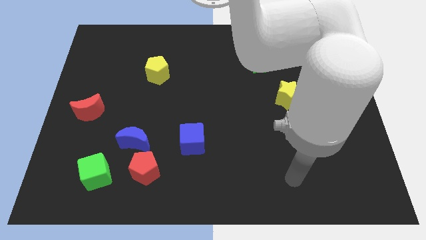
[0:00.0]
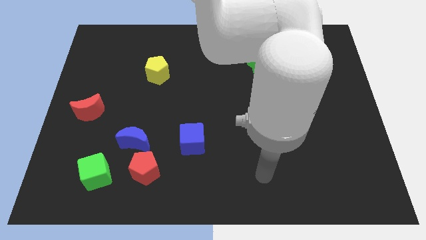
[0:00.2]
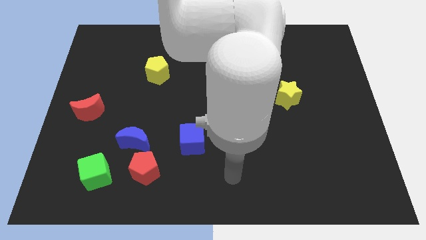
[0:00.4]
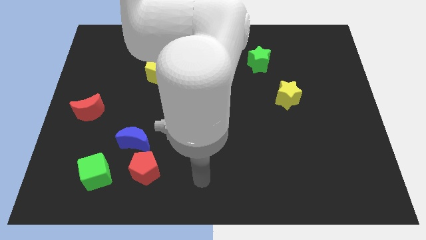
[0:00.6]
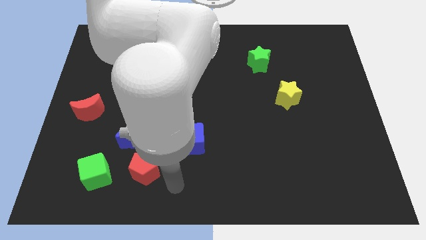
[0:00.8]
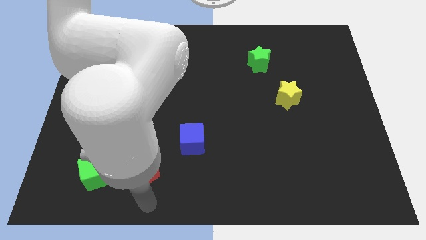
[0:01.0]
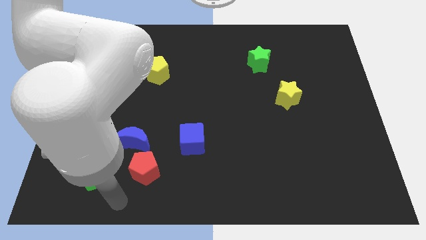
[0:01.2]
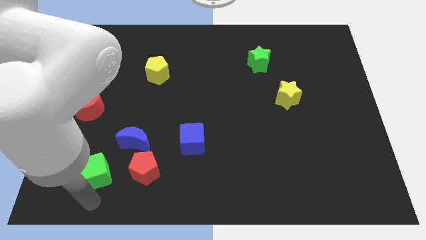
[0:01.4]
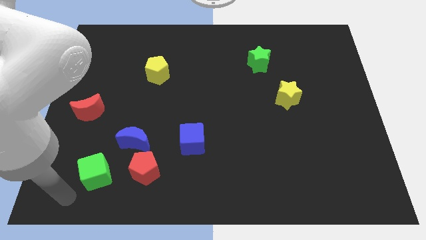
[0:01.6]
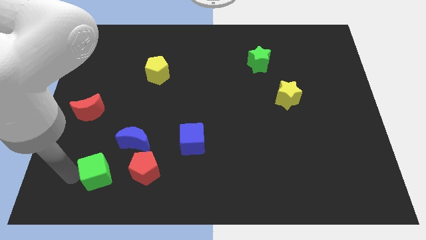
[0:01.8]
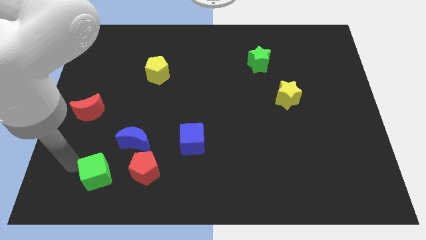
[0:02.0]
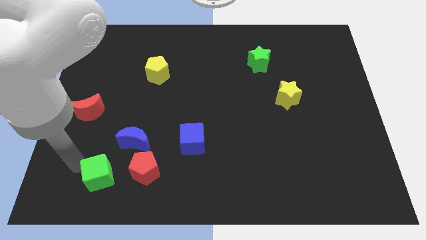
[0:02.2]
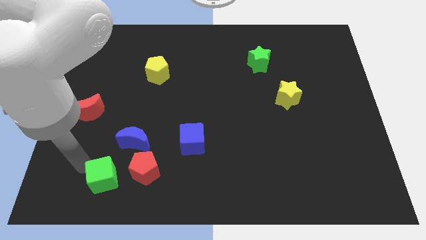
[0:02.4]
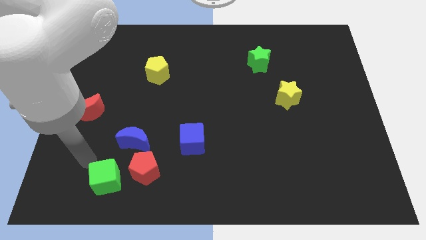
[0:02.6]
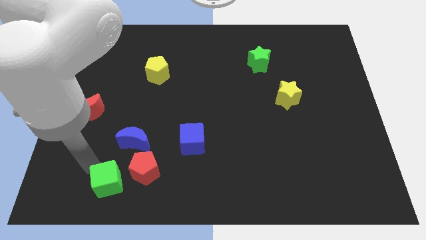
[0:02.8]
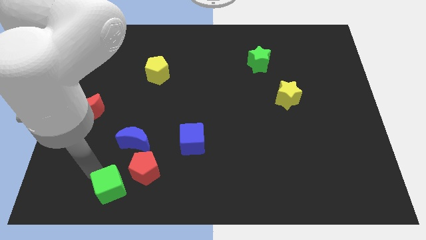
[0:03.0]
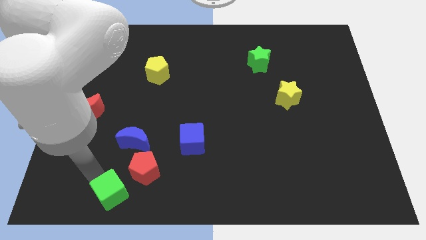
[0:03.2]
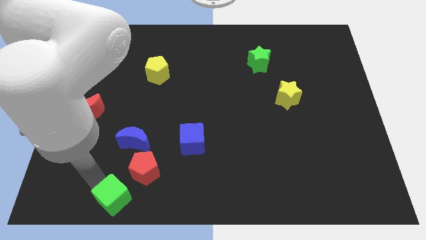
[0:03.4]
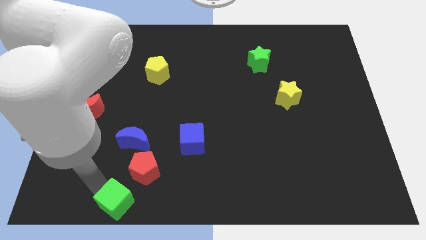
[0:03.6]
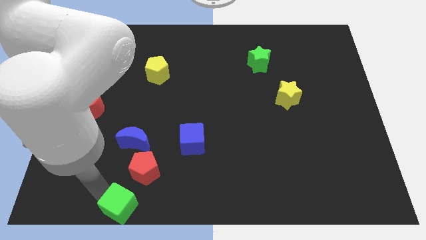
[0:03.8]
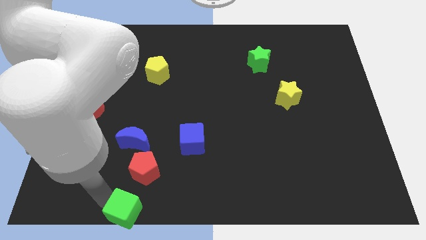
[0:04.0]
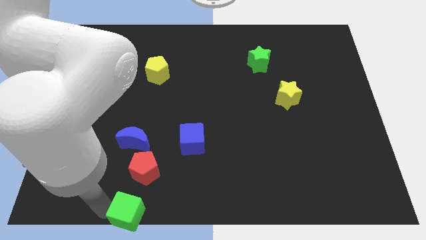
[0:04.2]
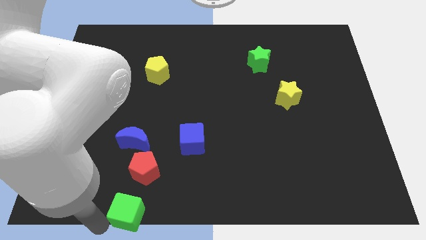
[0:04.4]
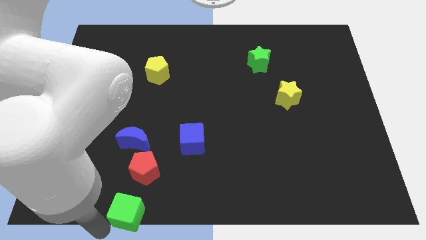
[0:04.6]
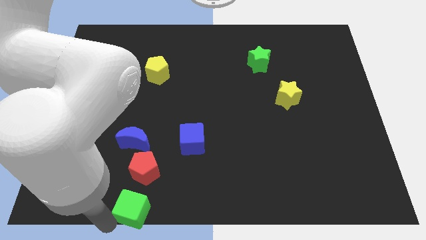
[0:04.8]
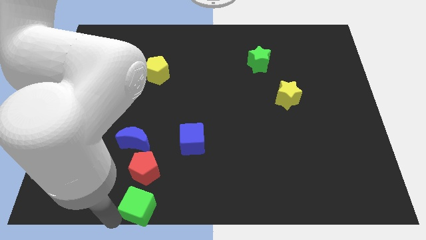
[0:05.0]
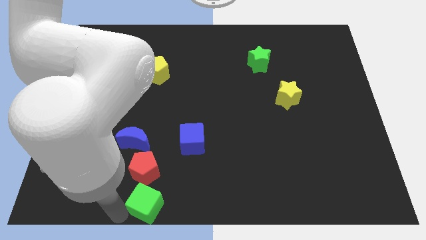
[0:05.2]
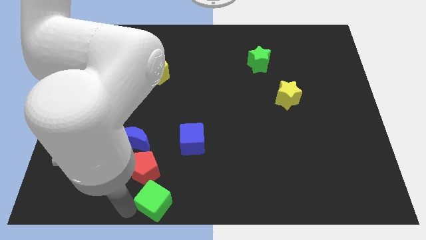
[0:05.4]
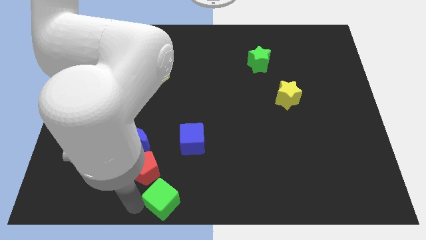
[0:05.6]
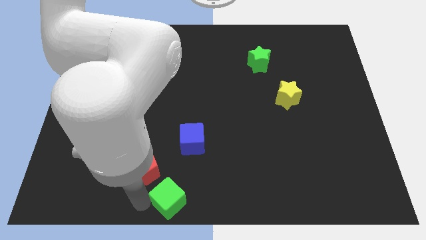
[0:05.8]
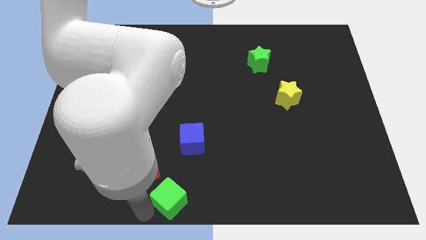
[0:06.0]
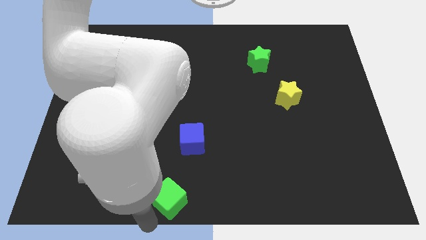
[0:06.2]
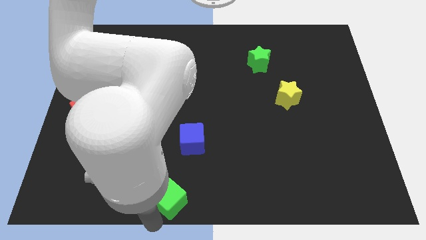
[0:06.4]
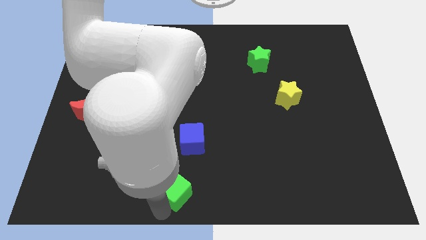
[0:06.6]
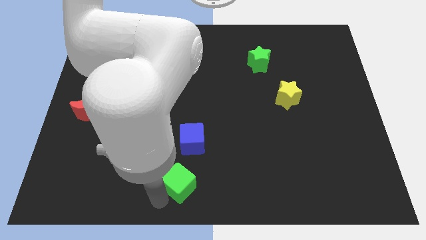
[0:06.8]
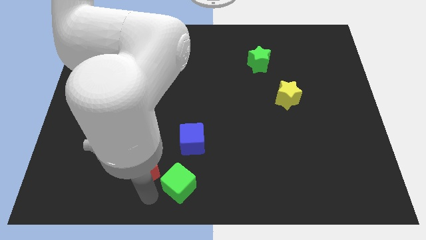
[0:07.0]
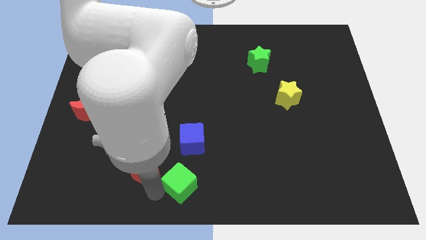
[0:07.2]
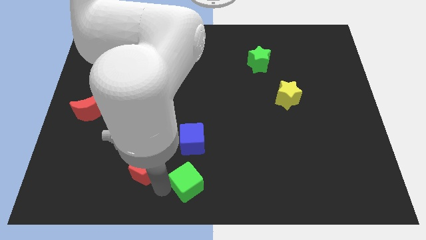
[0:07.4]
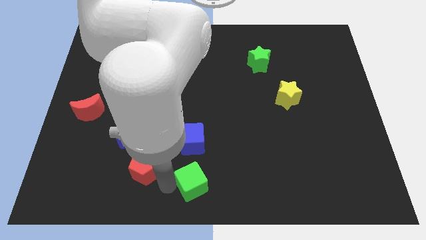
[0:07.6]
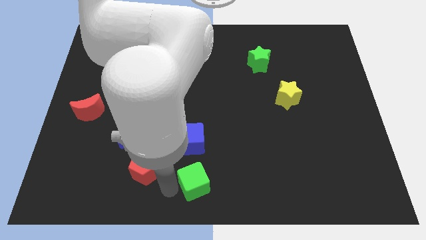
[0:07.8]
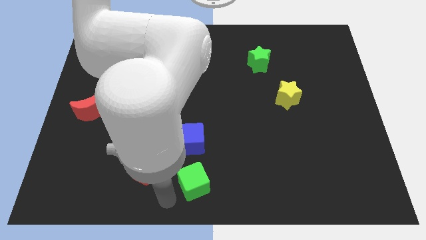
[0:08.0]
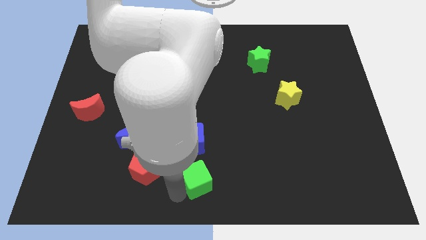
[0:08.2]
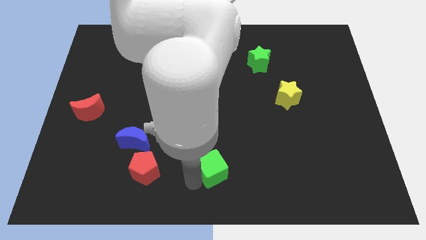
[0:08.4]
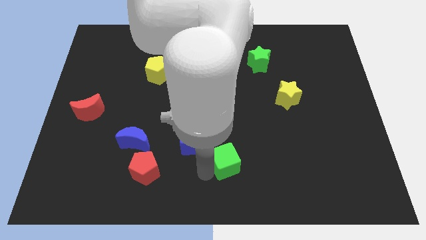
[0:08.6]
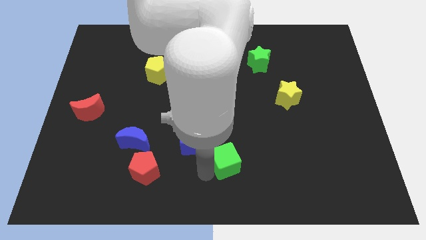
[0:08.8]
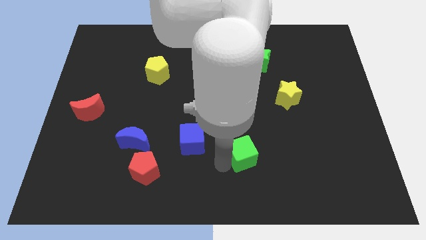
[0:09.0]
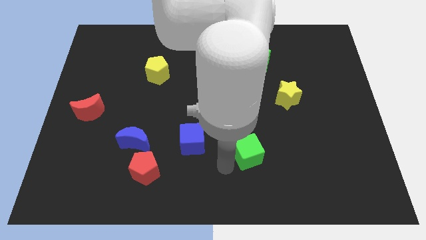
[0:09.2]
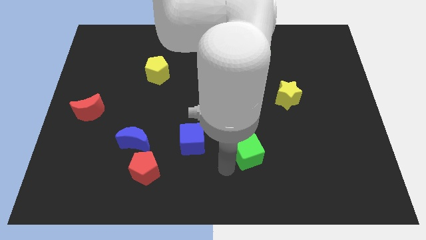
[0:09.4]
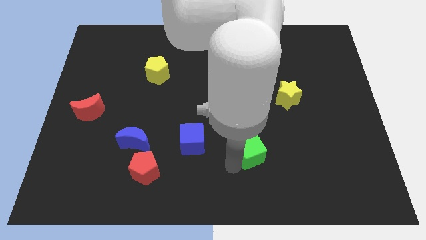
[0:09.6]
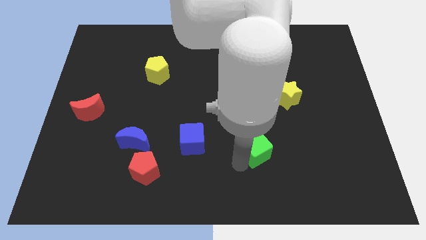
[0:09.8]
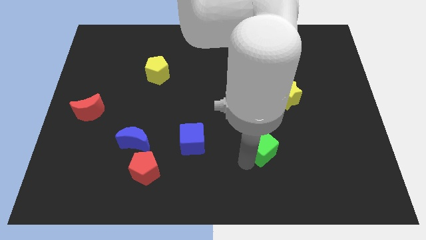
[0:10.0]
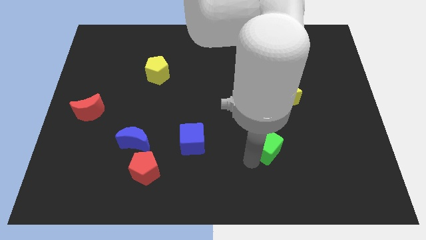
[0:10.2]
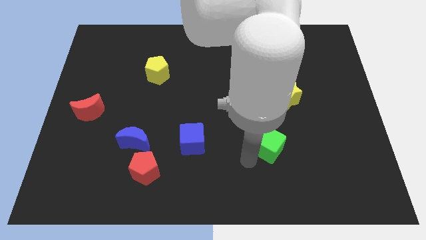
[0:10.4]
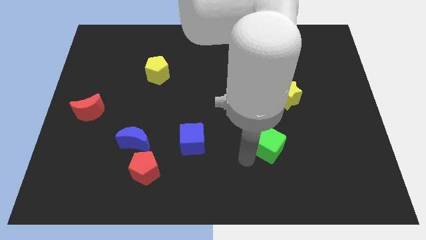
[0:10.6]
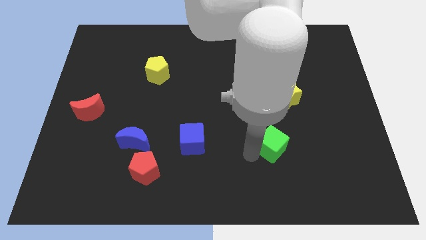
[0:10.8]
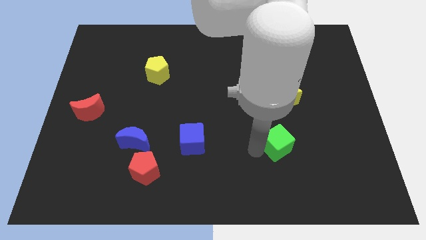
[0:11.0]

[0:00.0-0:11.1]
slide the green cube below the yellow star

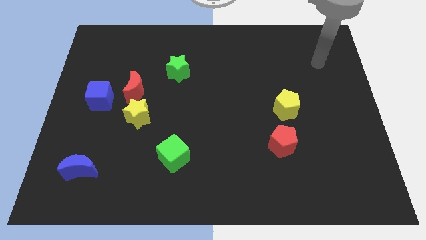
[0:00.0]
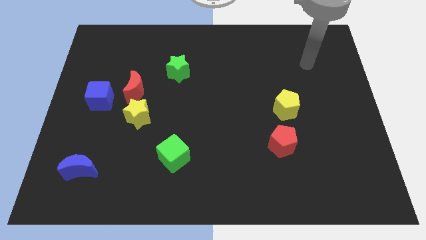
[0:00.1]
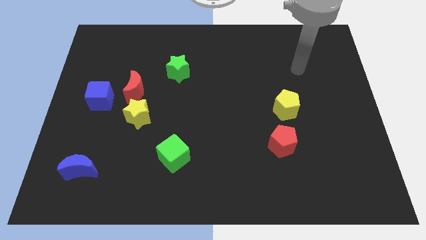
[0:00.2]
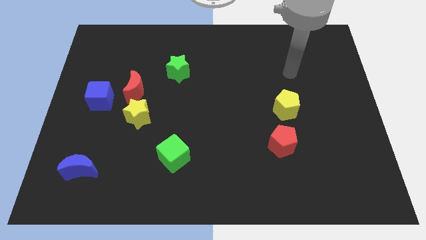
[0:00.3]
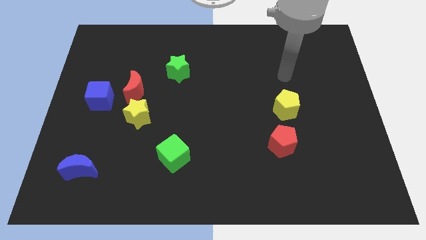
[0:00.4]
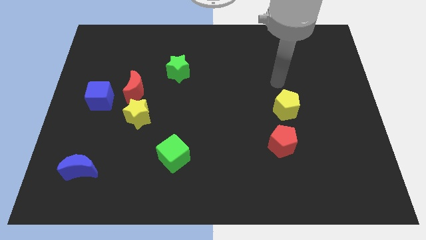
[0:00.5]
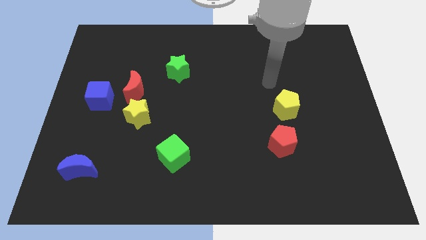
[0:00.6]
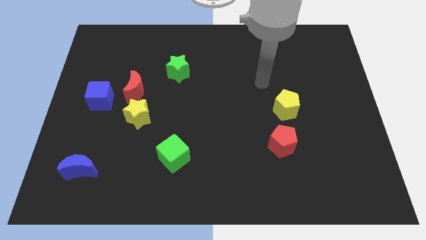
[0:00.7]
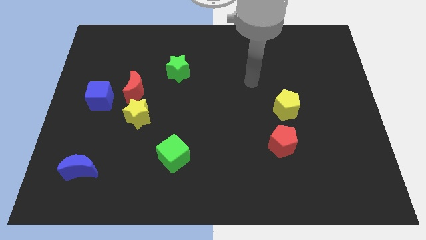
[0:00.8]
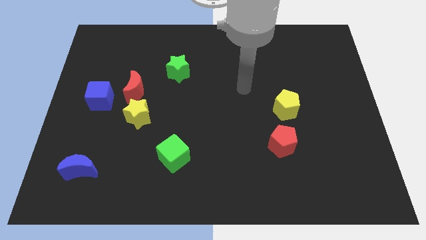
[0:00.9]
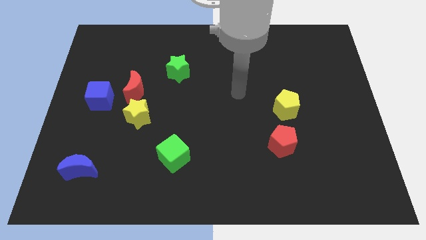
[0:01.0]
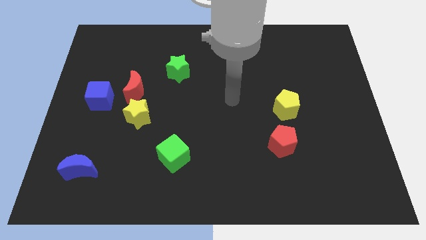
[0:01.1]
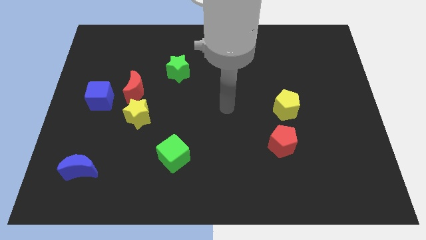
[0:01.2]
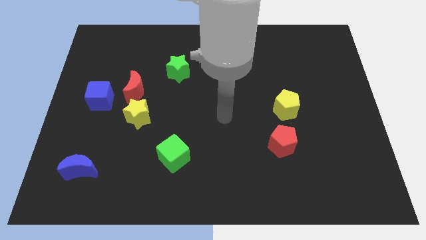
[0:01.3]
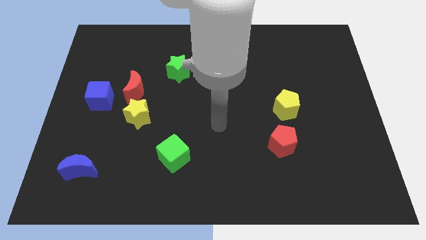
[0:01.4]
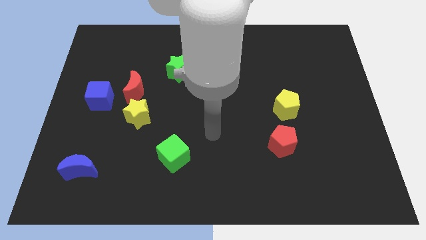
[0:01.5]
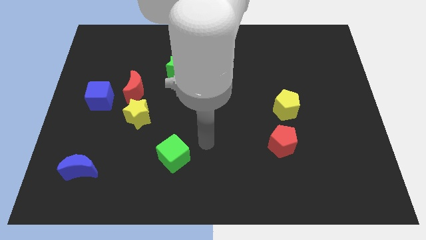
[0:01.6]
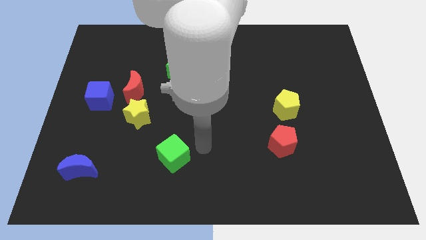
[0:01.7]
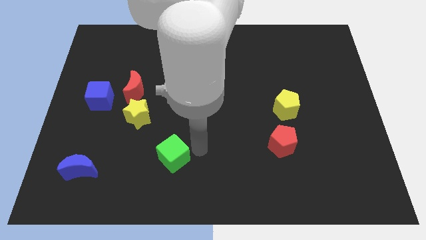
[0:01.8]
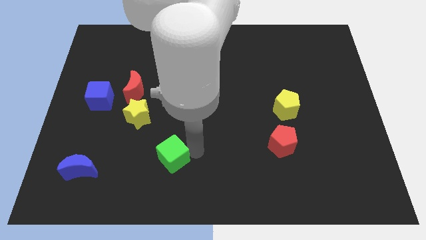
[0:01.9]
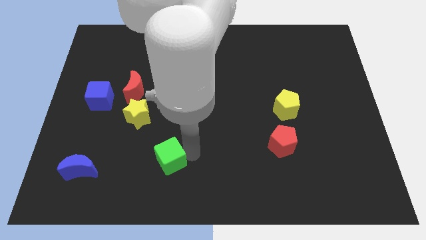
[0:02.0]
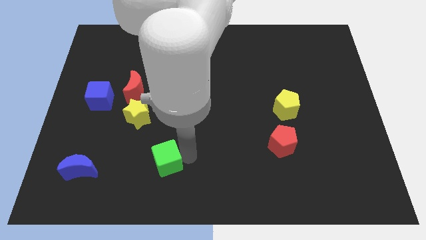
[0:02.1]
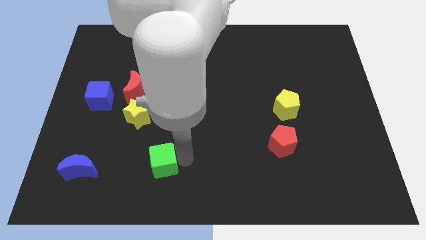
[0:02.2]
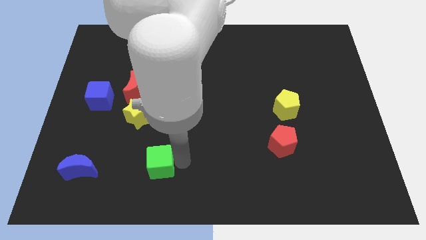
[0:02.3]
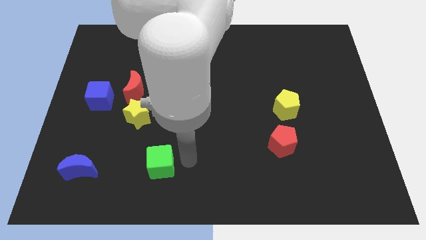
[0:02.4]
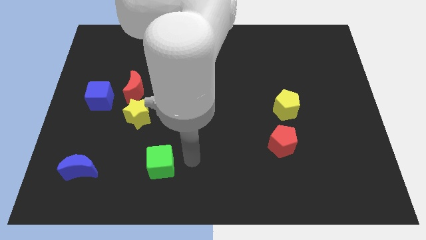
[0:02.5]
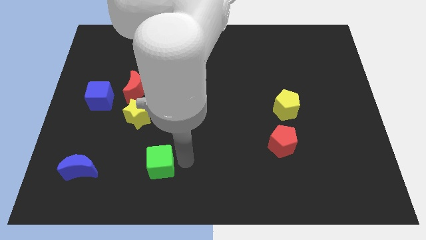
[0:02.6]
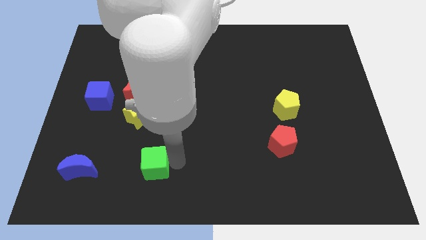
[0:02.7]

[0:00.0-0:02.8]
push the green cube to the right of the blue moon
